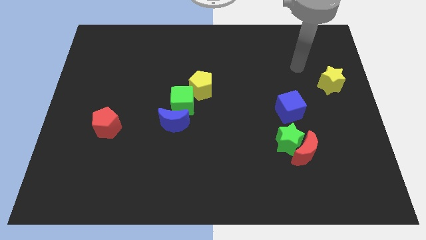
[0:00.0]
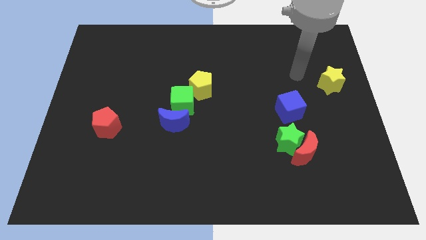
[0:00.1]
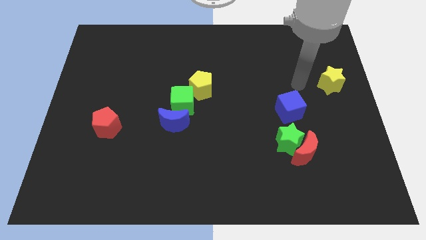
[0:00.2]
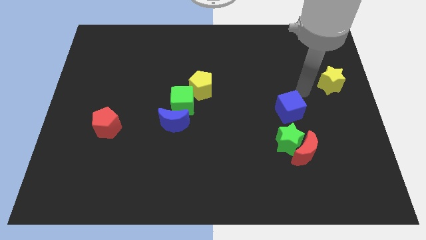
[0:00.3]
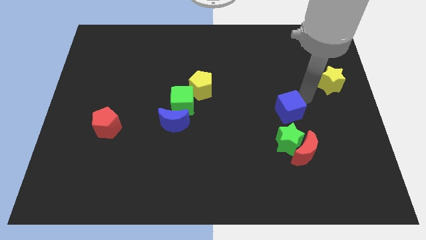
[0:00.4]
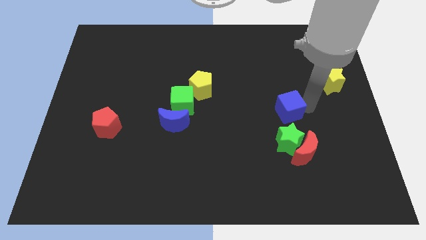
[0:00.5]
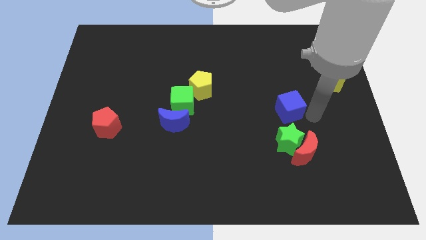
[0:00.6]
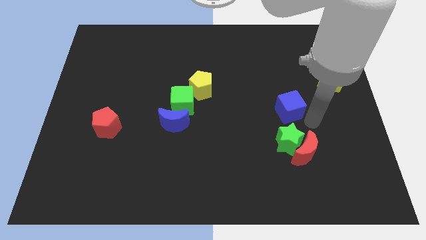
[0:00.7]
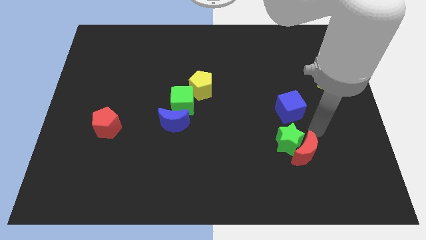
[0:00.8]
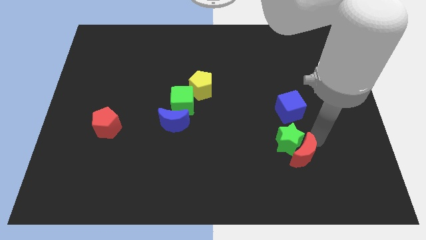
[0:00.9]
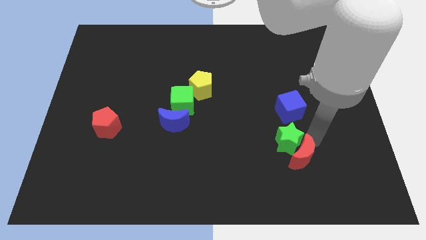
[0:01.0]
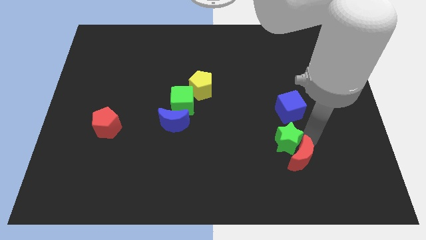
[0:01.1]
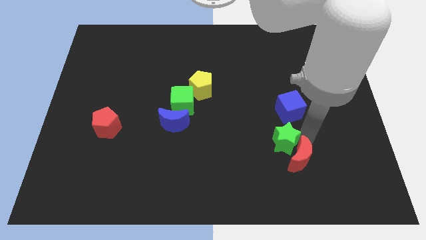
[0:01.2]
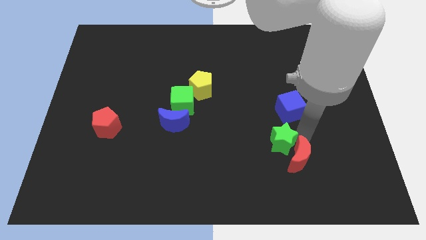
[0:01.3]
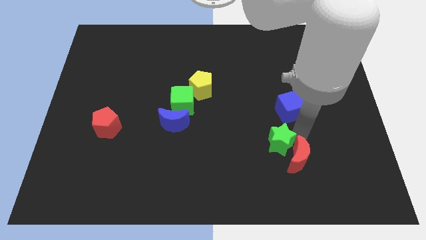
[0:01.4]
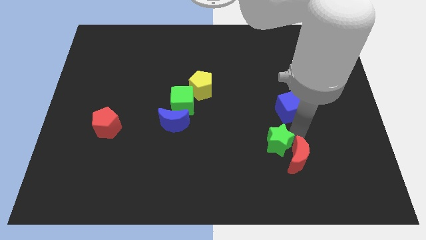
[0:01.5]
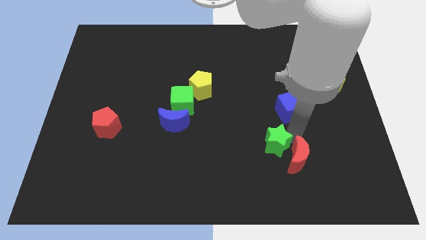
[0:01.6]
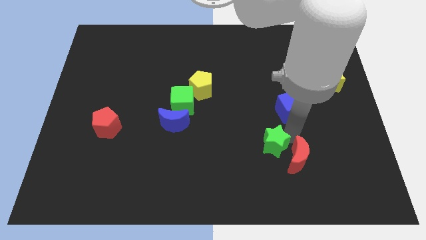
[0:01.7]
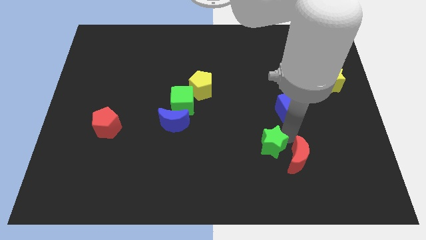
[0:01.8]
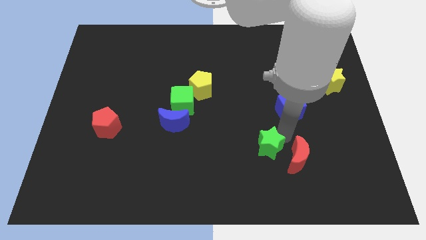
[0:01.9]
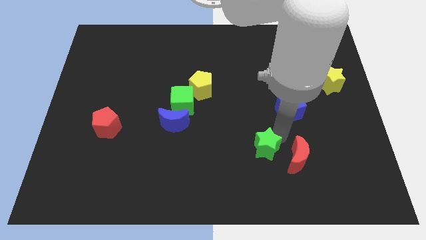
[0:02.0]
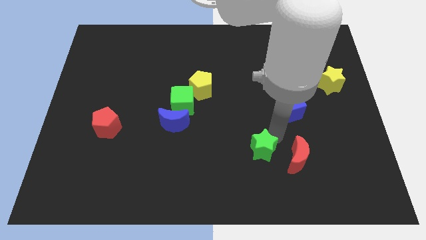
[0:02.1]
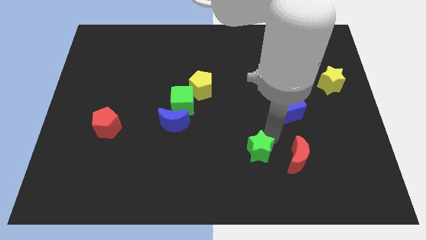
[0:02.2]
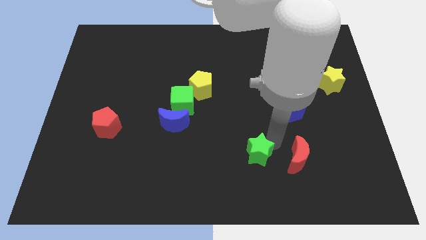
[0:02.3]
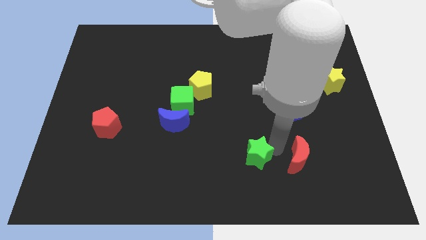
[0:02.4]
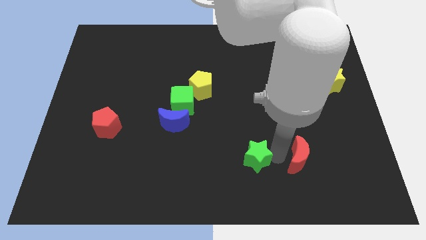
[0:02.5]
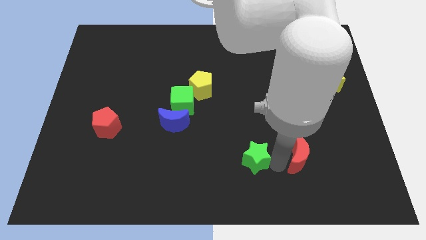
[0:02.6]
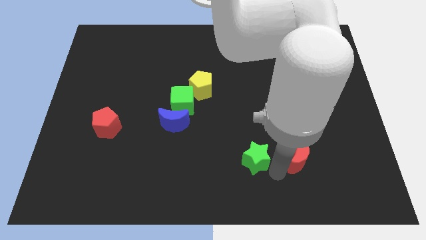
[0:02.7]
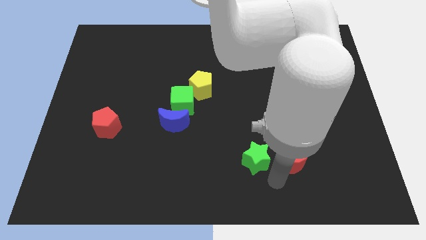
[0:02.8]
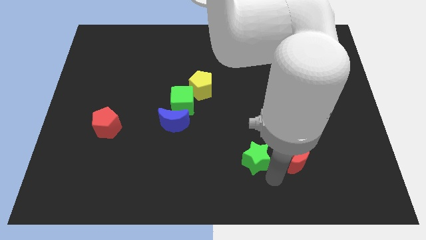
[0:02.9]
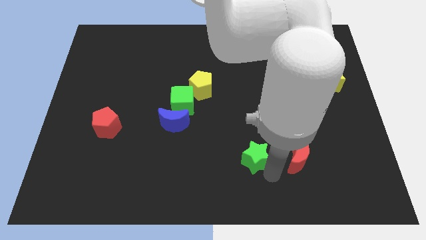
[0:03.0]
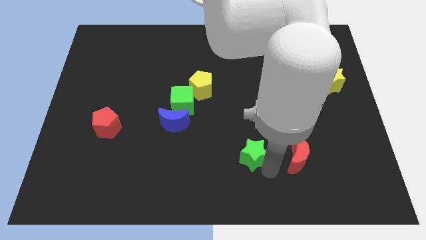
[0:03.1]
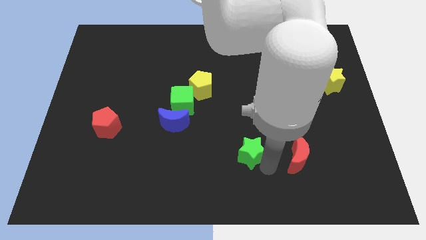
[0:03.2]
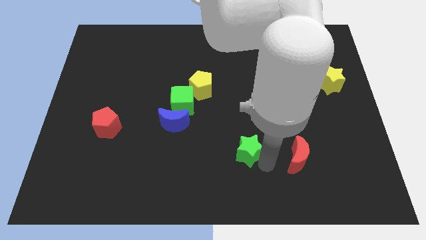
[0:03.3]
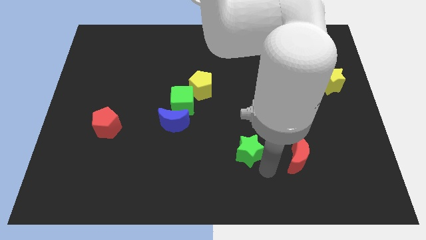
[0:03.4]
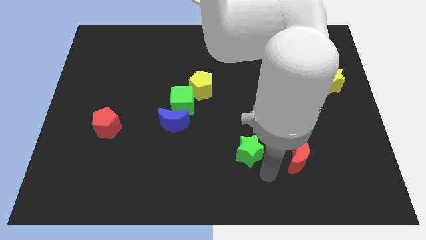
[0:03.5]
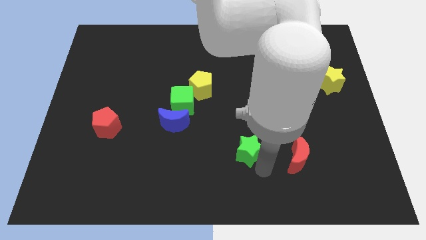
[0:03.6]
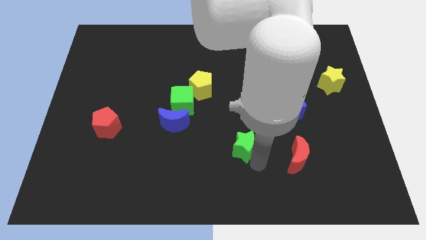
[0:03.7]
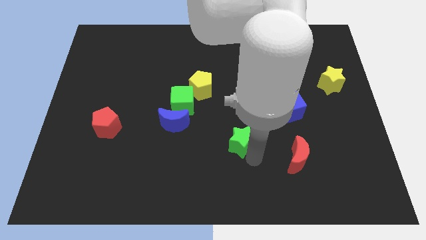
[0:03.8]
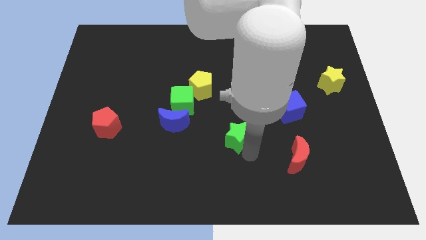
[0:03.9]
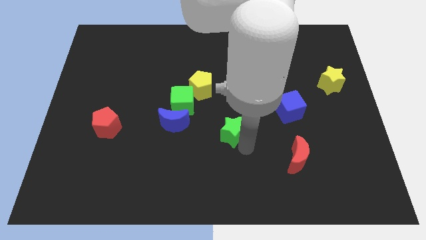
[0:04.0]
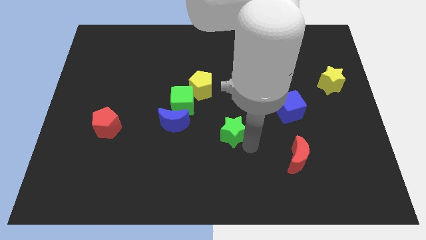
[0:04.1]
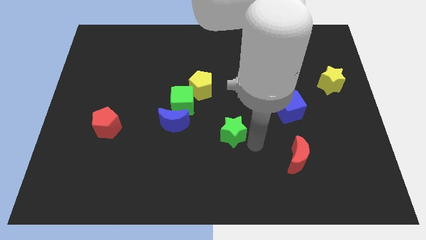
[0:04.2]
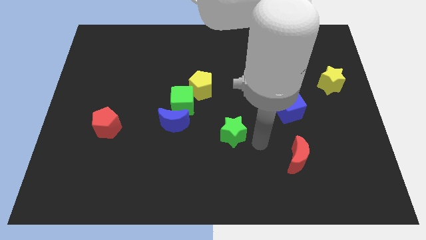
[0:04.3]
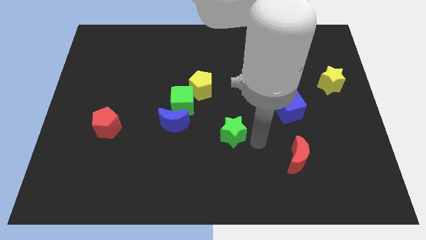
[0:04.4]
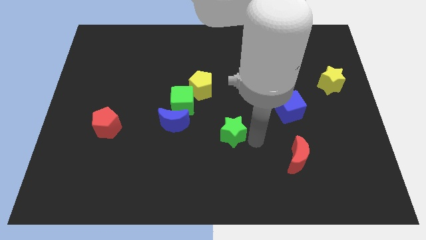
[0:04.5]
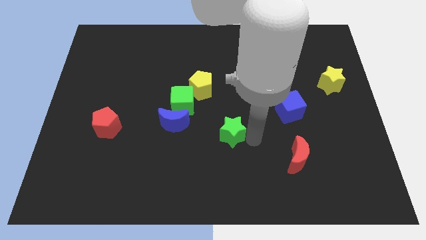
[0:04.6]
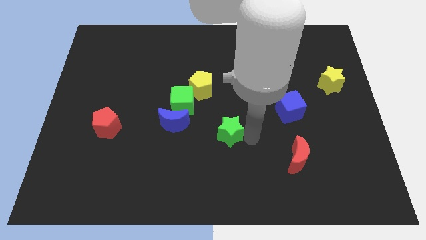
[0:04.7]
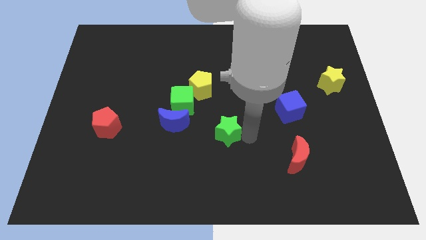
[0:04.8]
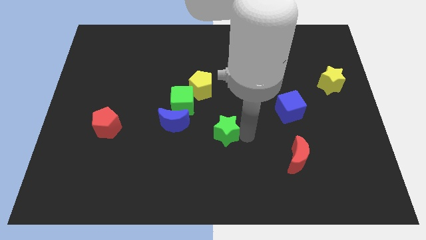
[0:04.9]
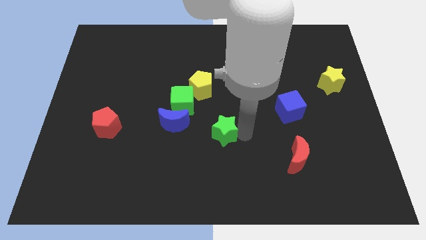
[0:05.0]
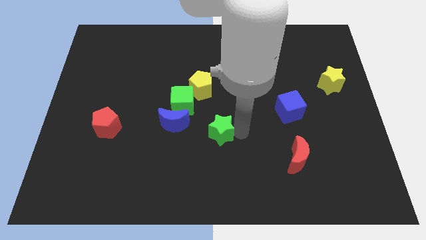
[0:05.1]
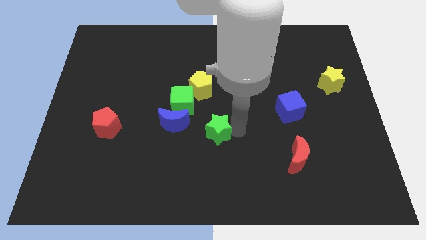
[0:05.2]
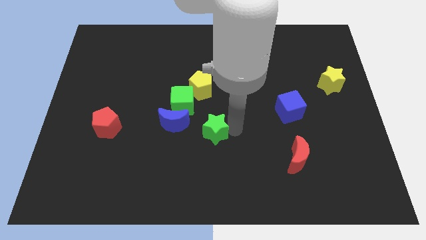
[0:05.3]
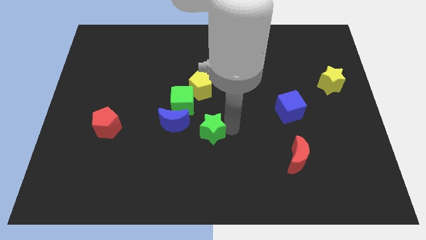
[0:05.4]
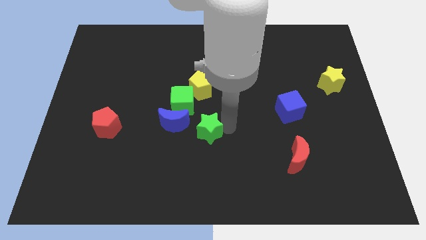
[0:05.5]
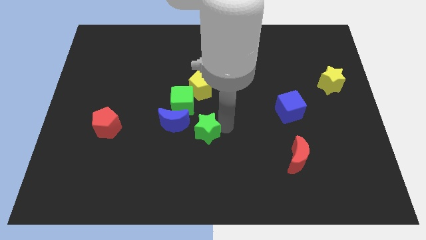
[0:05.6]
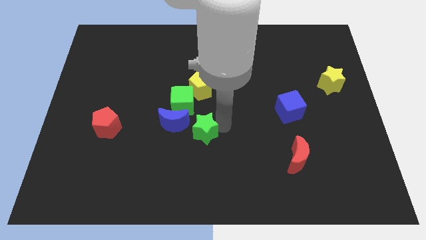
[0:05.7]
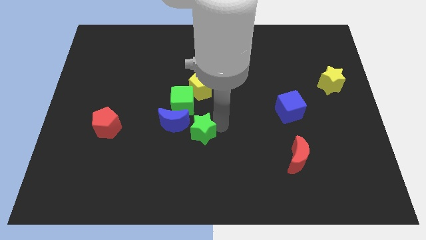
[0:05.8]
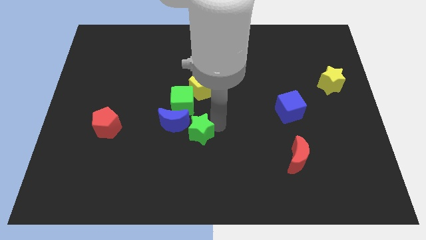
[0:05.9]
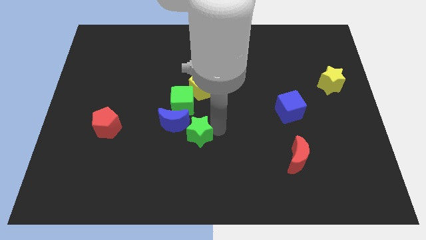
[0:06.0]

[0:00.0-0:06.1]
put the green star to the blue moon

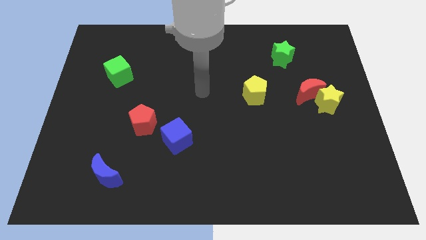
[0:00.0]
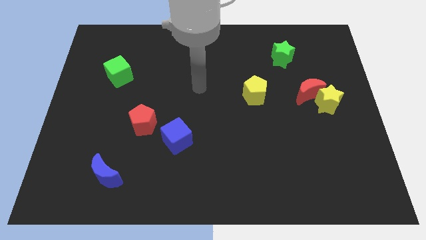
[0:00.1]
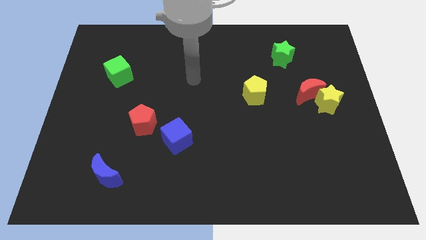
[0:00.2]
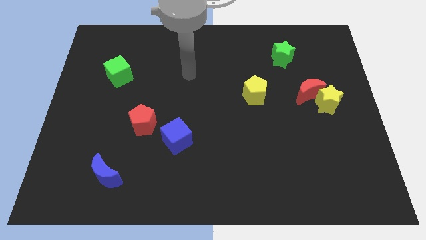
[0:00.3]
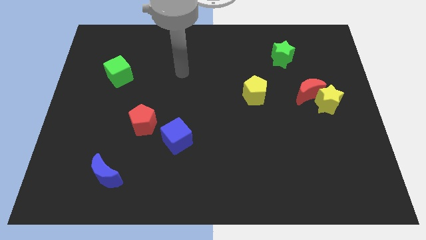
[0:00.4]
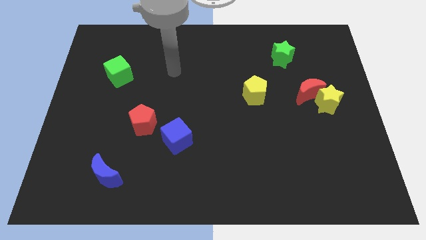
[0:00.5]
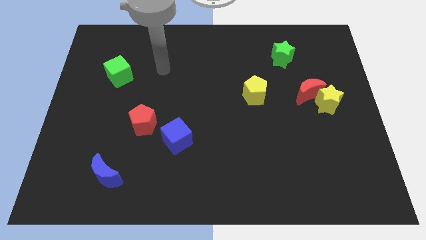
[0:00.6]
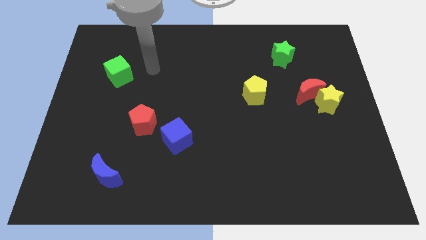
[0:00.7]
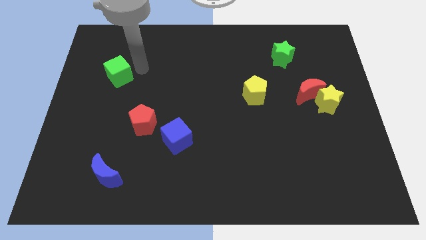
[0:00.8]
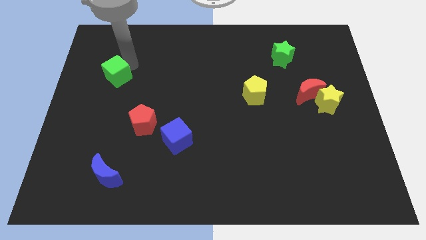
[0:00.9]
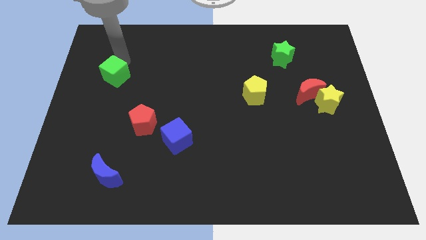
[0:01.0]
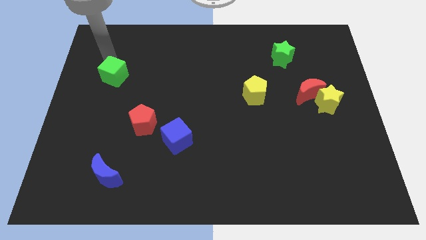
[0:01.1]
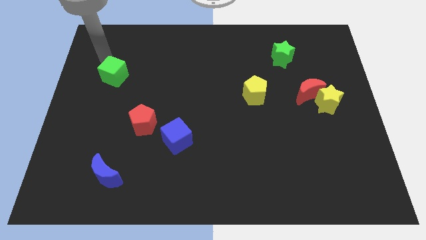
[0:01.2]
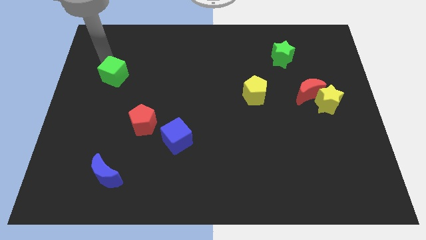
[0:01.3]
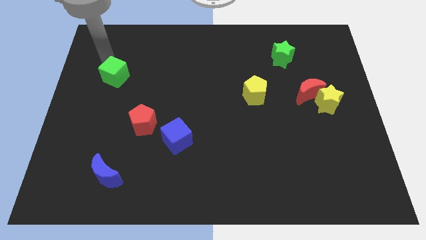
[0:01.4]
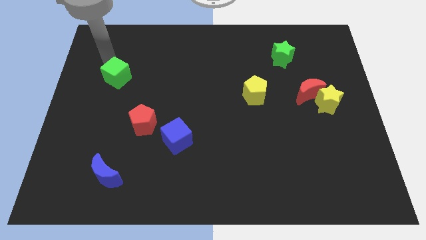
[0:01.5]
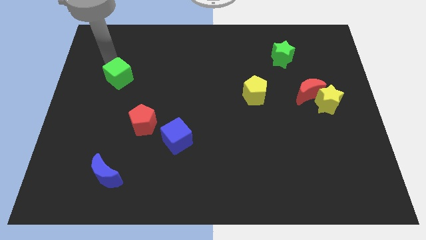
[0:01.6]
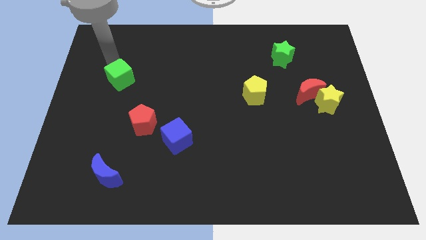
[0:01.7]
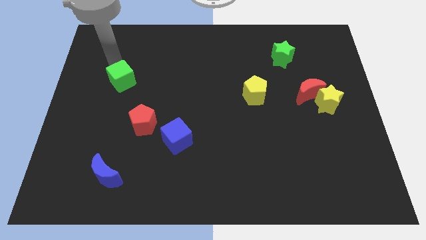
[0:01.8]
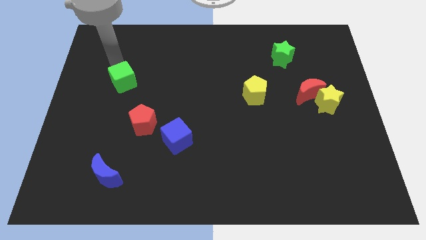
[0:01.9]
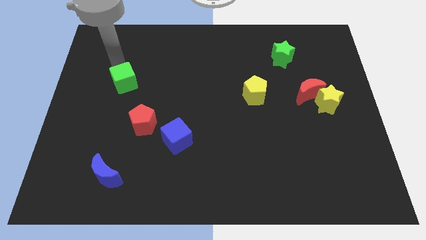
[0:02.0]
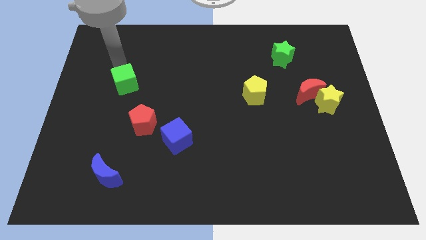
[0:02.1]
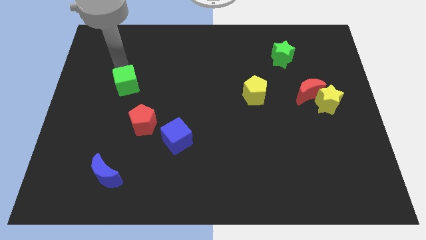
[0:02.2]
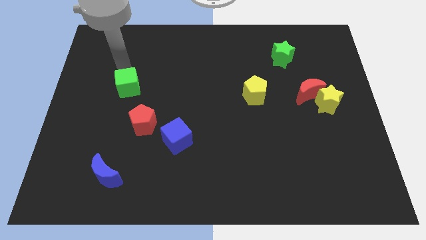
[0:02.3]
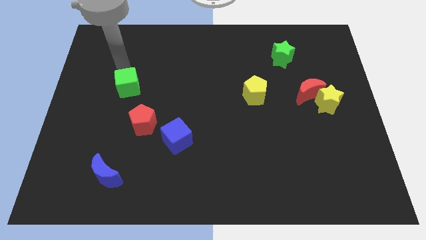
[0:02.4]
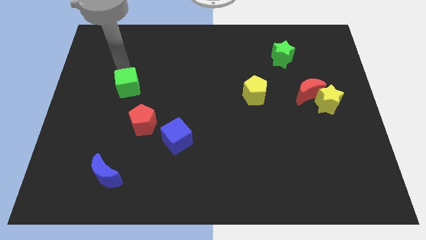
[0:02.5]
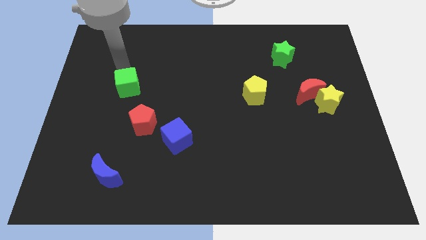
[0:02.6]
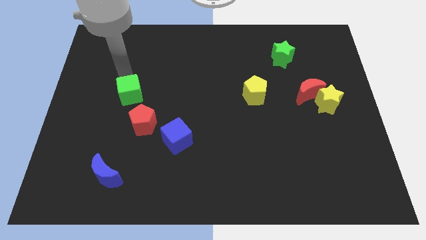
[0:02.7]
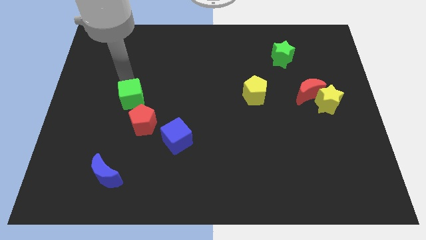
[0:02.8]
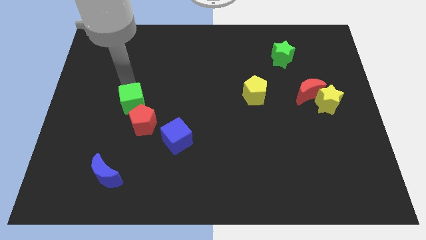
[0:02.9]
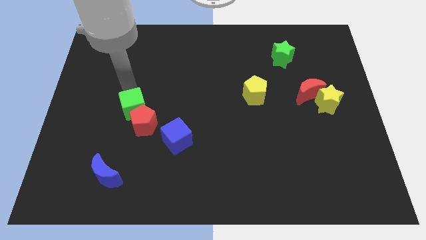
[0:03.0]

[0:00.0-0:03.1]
push the green cube next to the red pentagon
